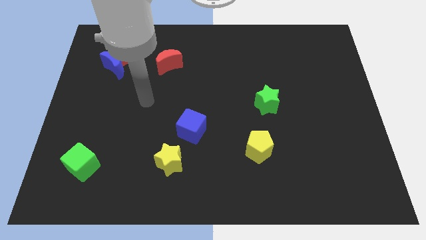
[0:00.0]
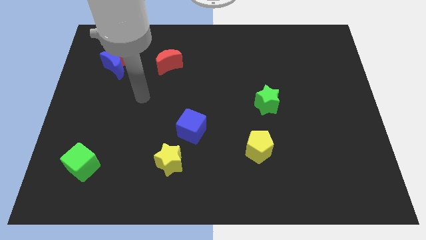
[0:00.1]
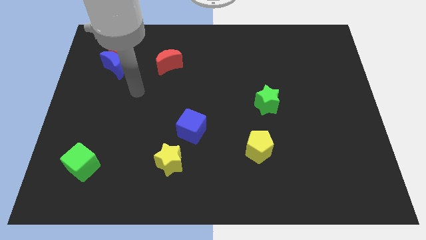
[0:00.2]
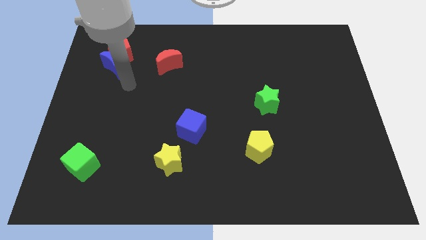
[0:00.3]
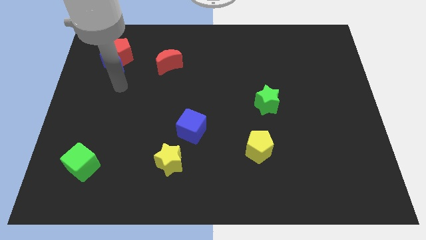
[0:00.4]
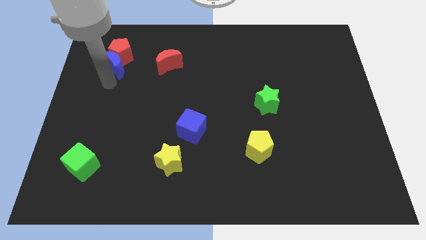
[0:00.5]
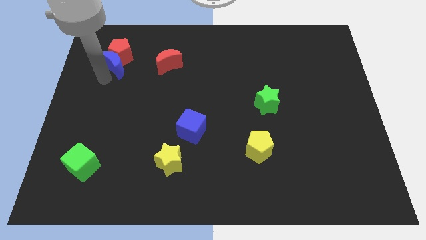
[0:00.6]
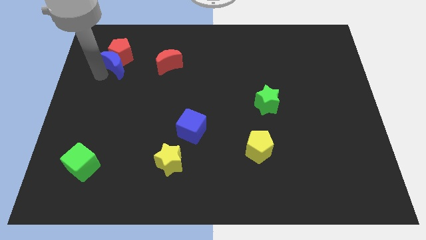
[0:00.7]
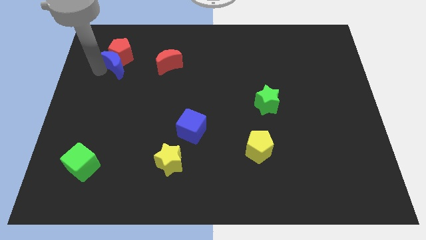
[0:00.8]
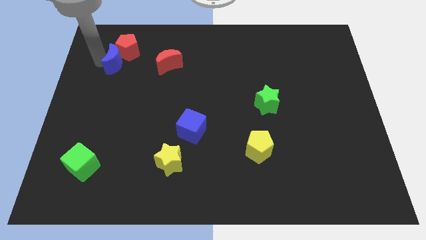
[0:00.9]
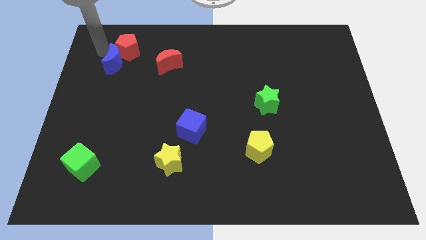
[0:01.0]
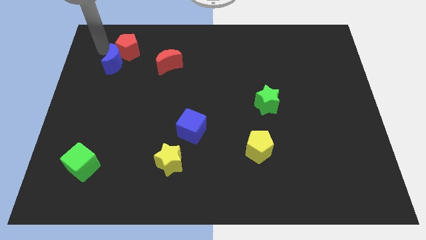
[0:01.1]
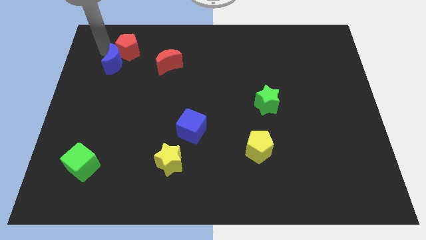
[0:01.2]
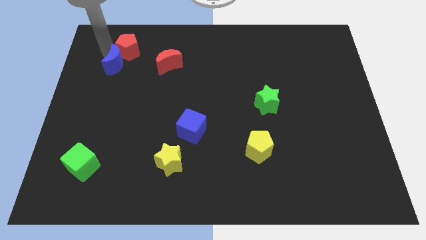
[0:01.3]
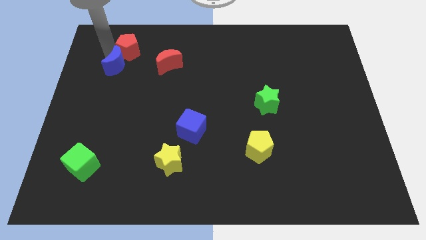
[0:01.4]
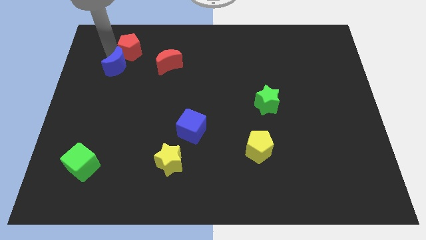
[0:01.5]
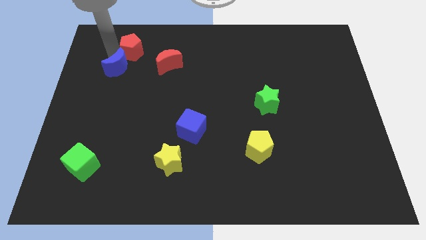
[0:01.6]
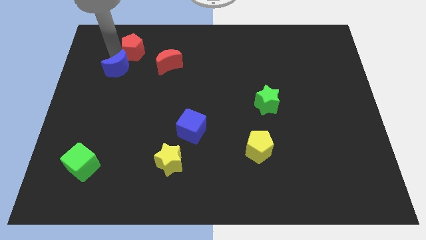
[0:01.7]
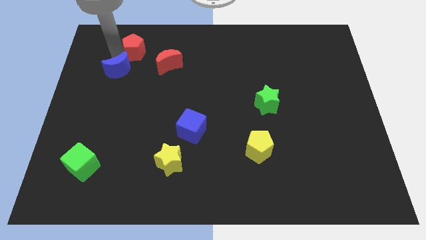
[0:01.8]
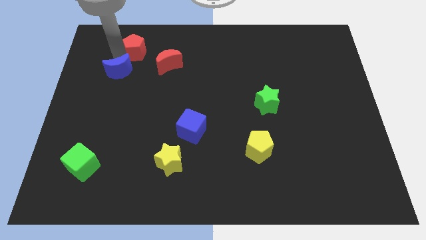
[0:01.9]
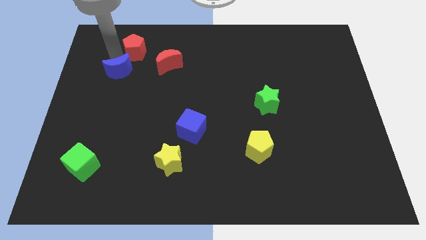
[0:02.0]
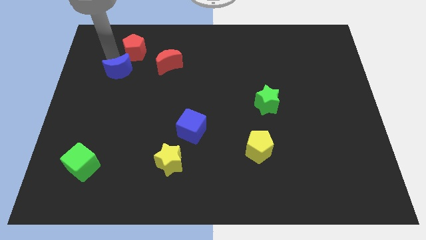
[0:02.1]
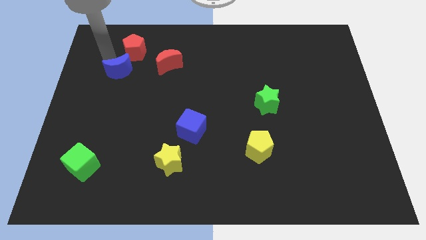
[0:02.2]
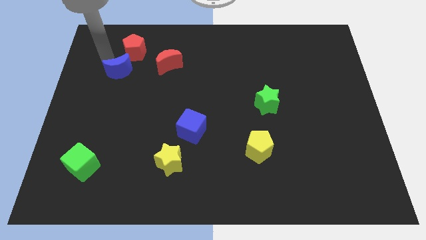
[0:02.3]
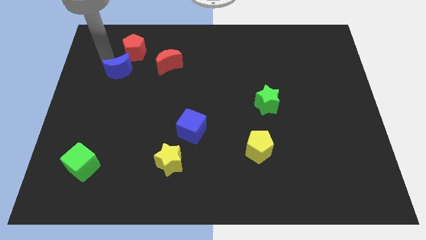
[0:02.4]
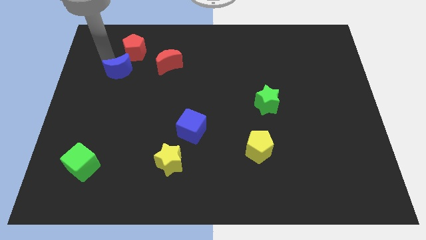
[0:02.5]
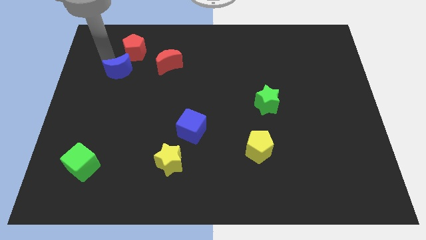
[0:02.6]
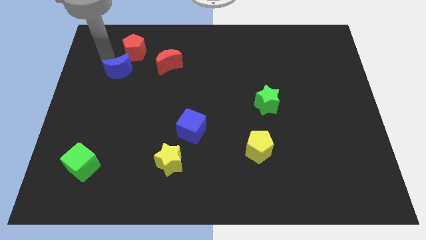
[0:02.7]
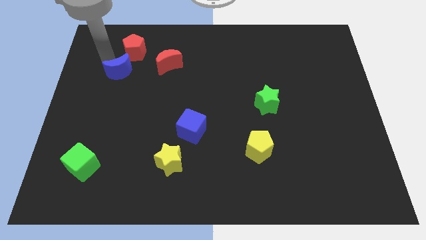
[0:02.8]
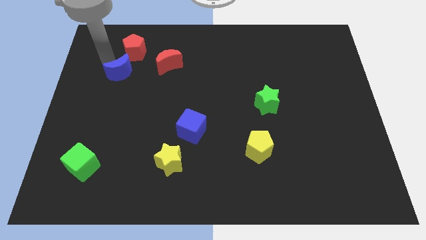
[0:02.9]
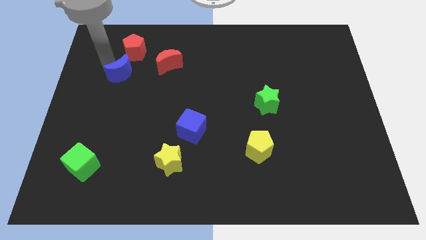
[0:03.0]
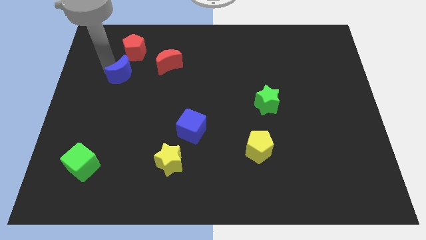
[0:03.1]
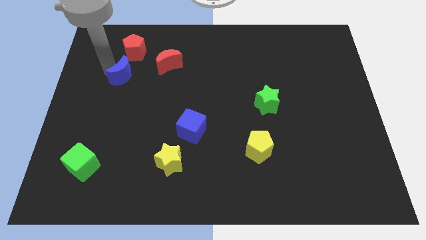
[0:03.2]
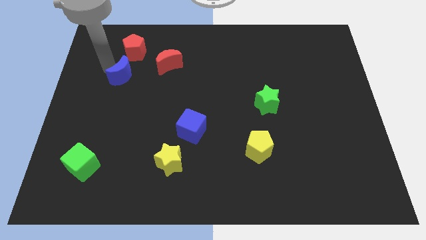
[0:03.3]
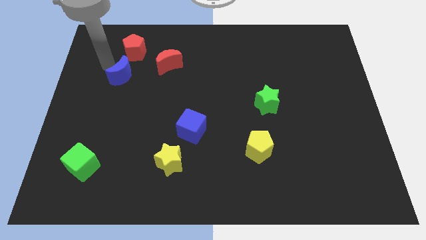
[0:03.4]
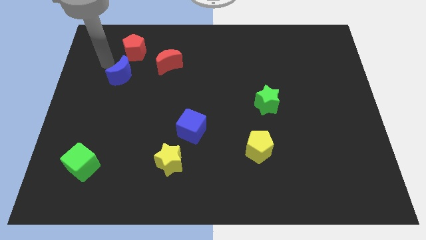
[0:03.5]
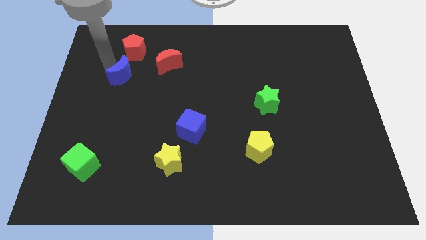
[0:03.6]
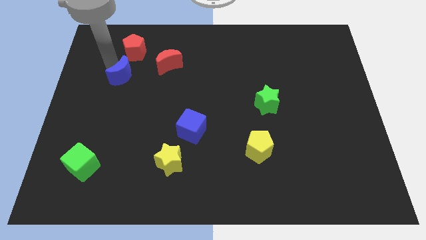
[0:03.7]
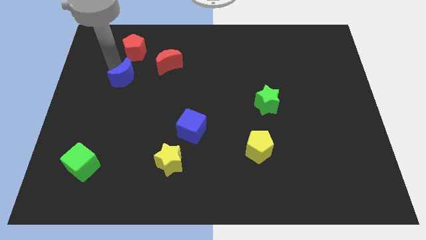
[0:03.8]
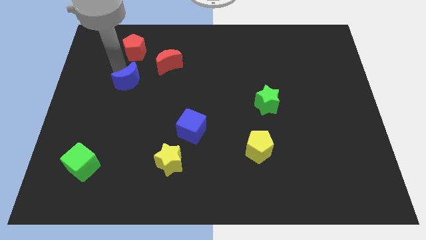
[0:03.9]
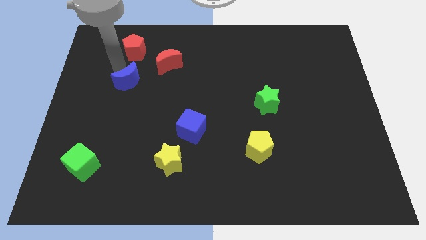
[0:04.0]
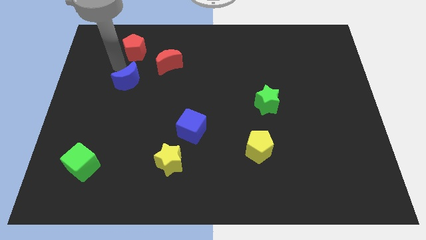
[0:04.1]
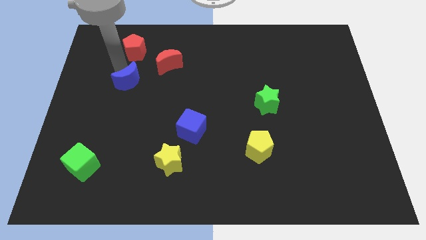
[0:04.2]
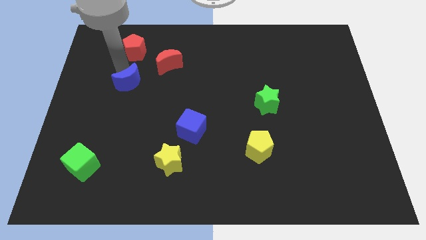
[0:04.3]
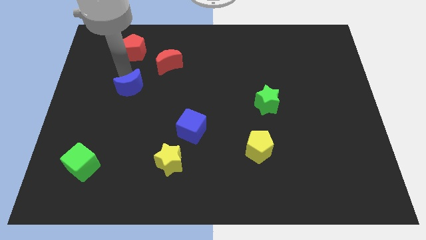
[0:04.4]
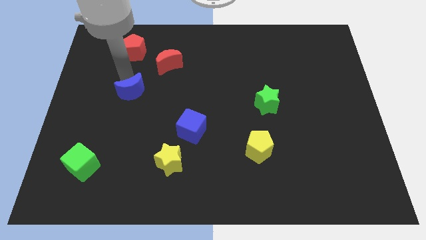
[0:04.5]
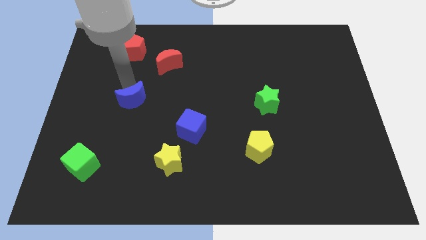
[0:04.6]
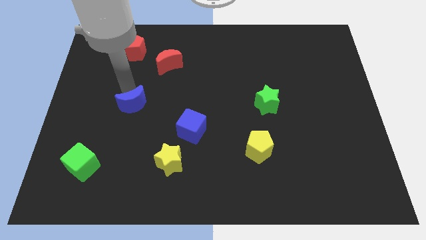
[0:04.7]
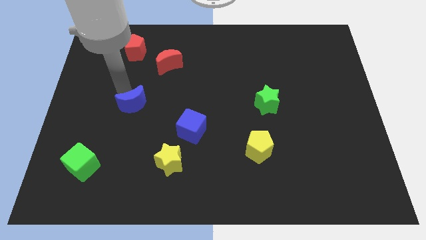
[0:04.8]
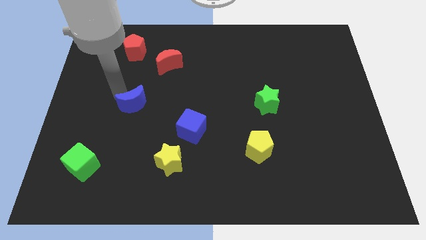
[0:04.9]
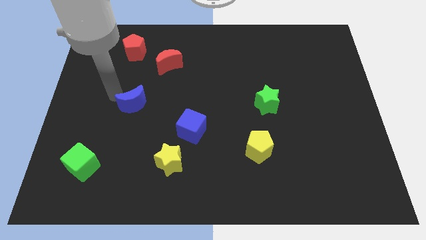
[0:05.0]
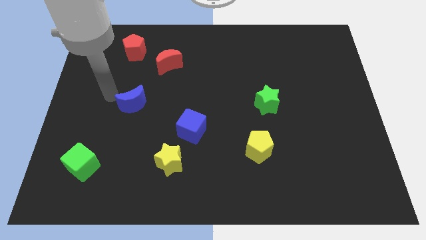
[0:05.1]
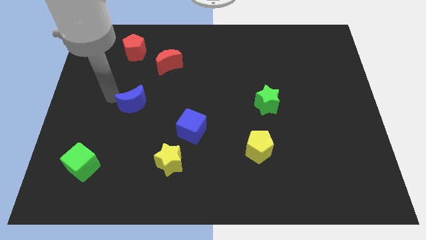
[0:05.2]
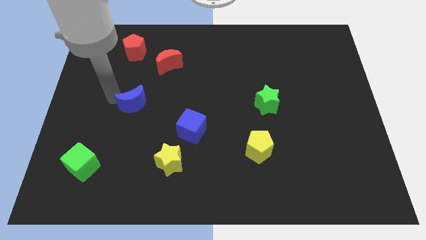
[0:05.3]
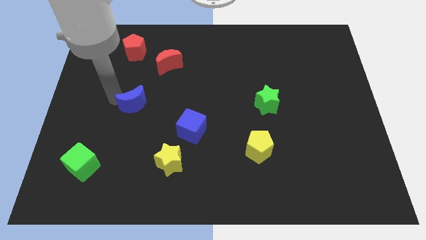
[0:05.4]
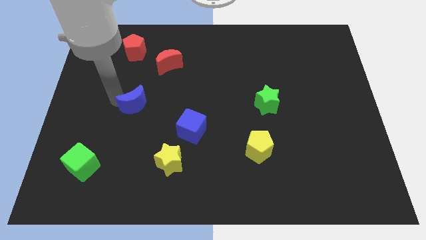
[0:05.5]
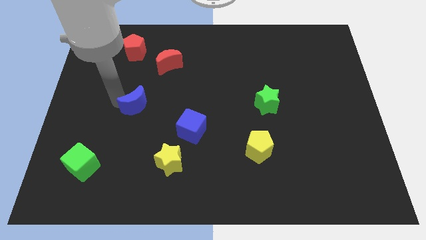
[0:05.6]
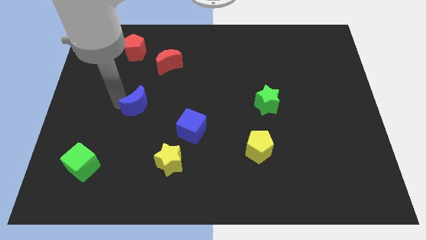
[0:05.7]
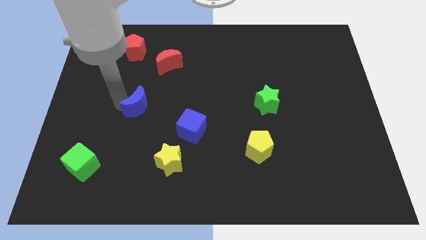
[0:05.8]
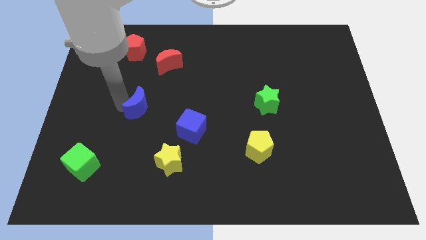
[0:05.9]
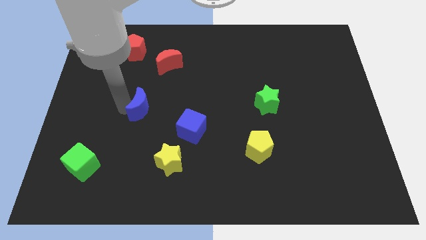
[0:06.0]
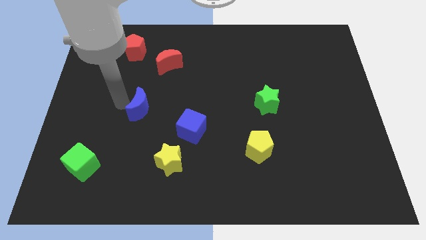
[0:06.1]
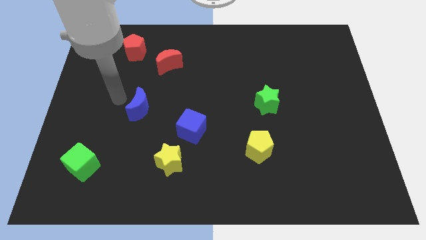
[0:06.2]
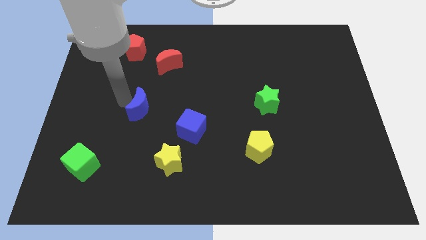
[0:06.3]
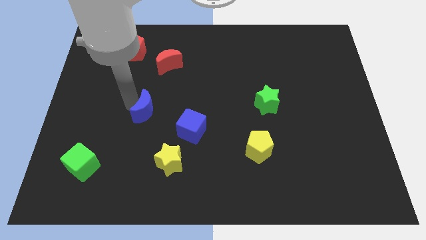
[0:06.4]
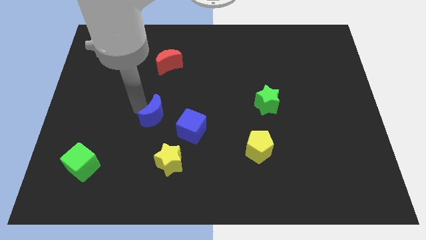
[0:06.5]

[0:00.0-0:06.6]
put the blue moon above the yellow star
